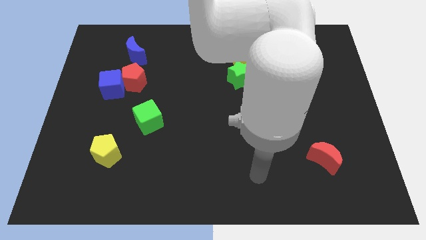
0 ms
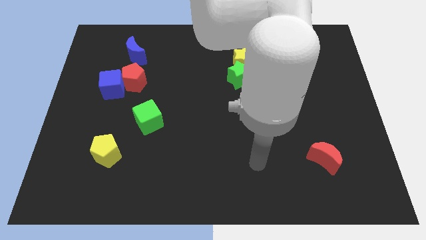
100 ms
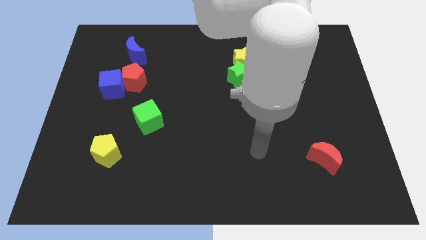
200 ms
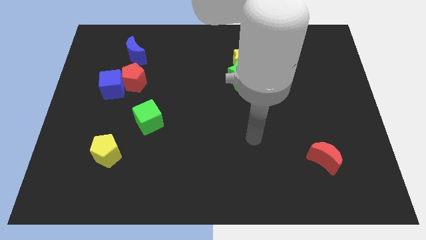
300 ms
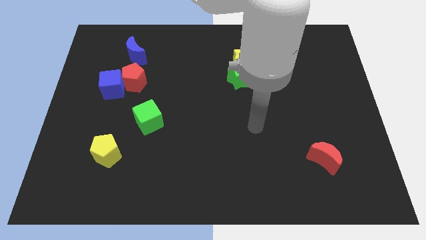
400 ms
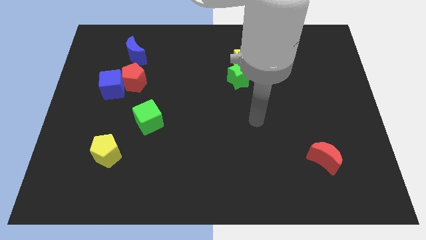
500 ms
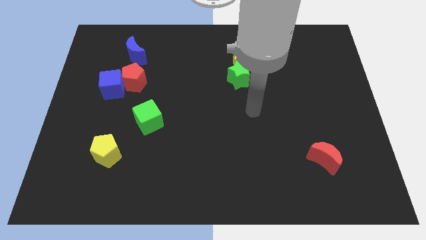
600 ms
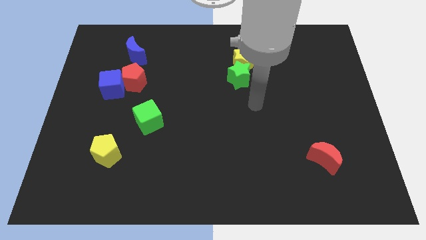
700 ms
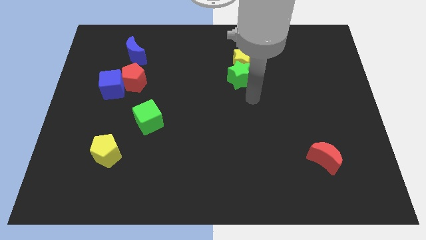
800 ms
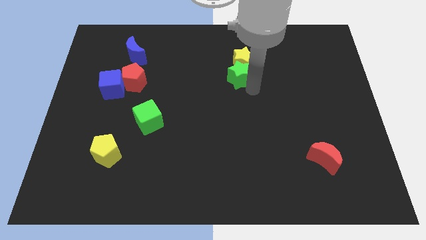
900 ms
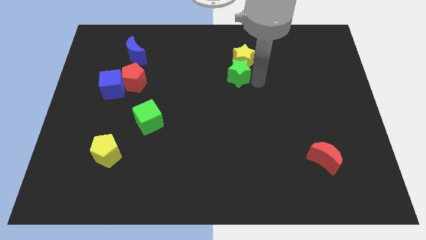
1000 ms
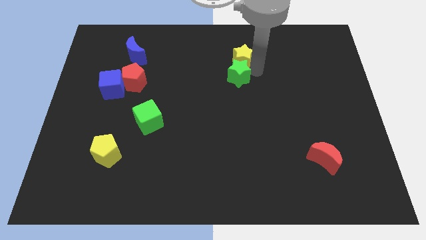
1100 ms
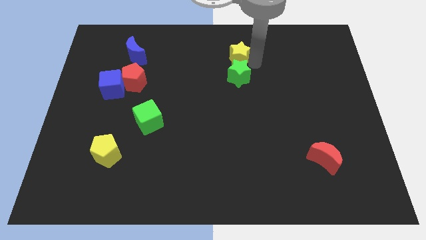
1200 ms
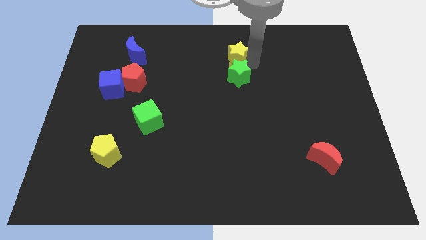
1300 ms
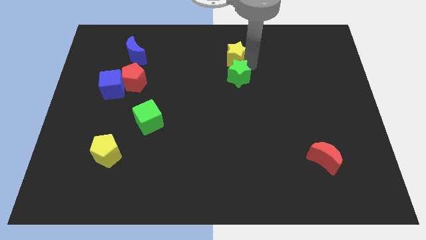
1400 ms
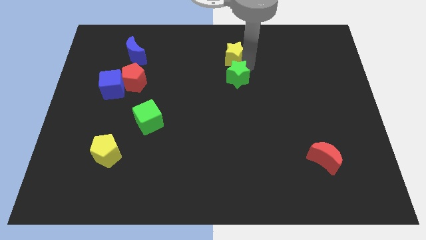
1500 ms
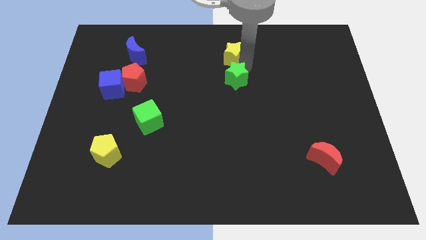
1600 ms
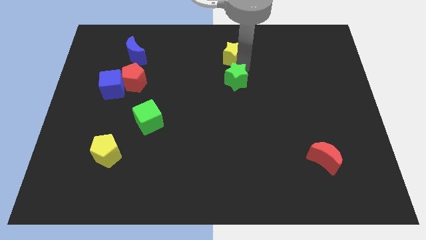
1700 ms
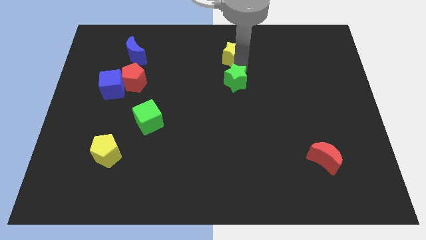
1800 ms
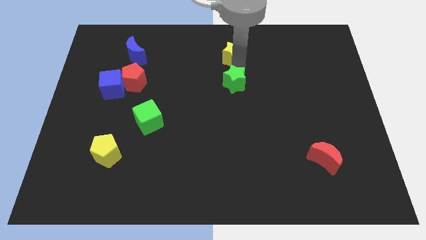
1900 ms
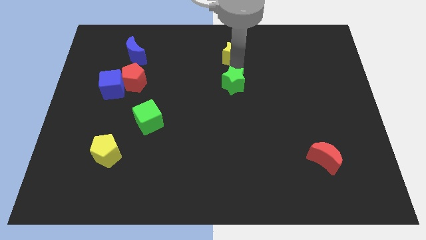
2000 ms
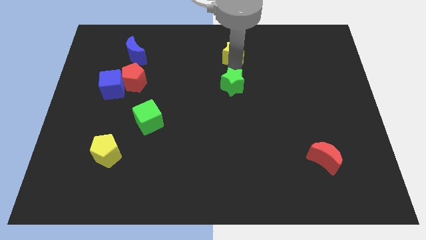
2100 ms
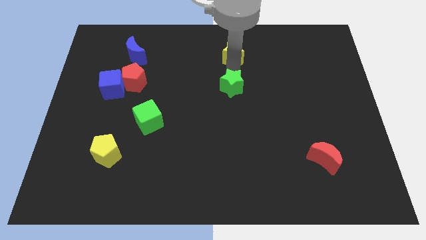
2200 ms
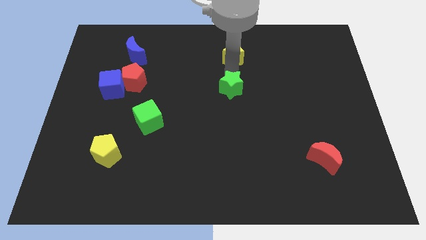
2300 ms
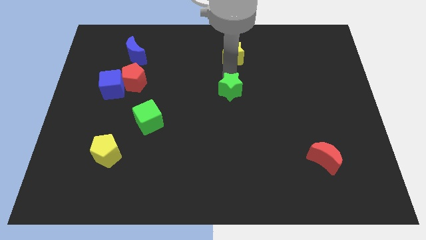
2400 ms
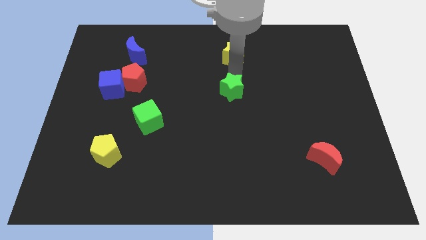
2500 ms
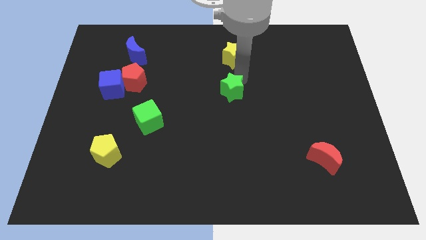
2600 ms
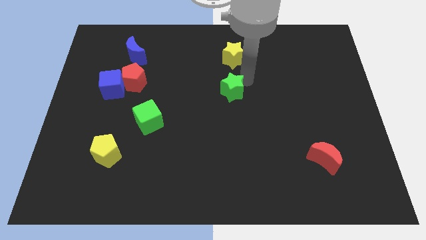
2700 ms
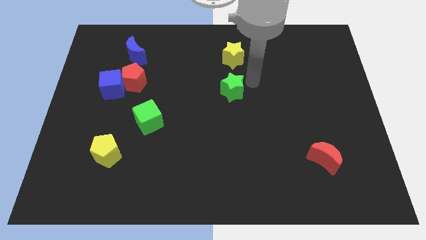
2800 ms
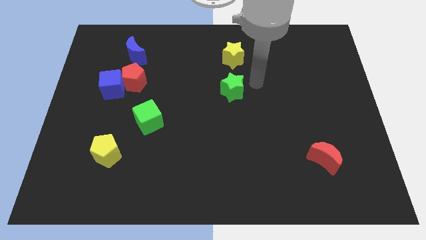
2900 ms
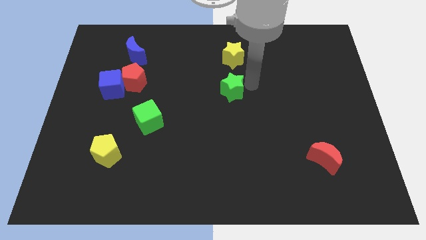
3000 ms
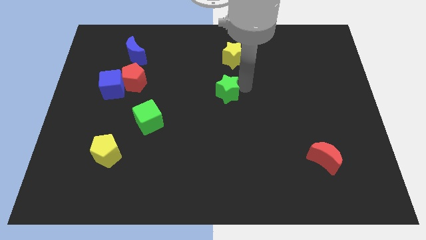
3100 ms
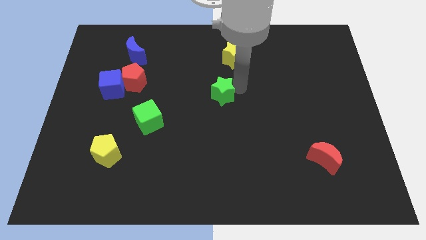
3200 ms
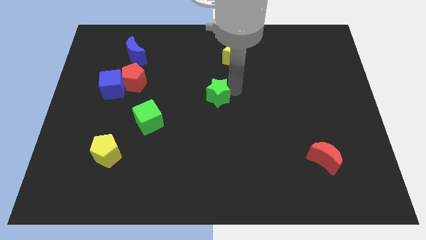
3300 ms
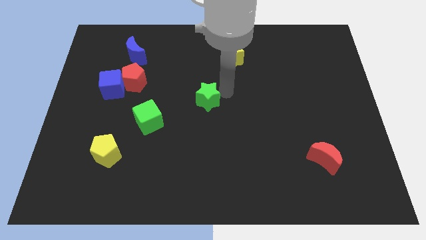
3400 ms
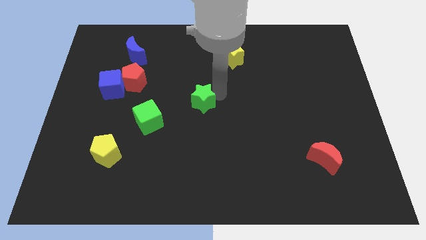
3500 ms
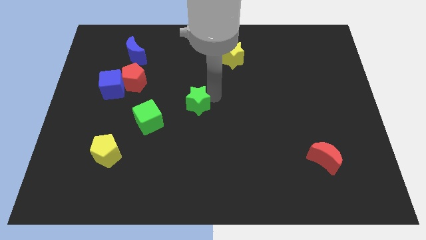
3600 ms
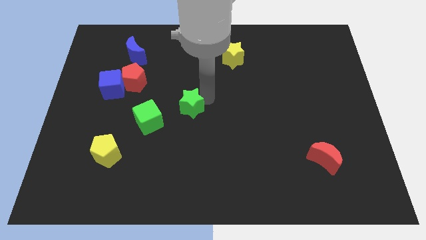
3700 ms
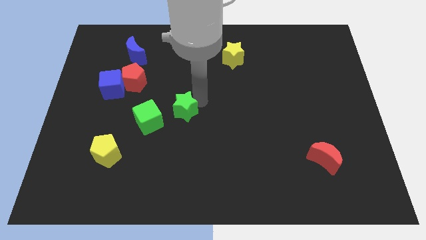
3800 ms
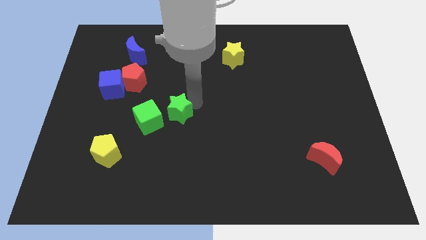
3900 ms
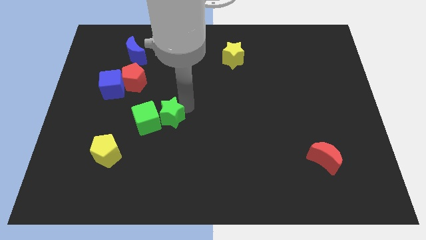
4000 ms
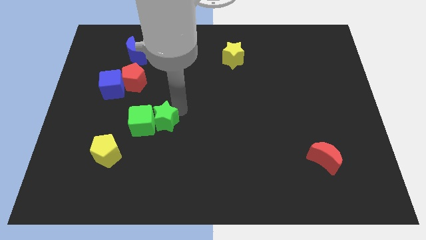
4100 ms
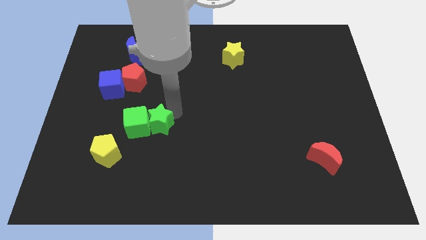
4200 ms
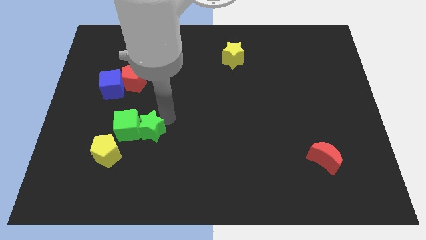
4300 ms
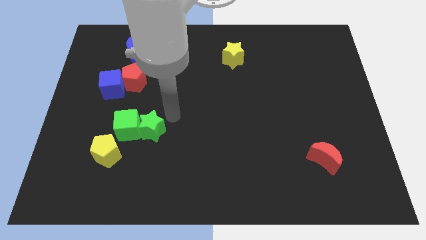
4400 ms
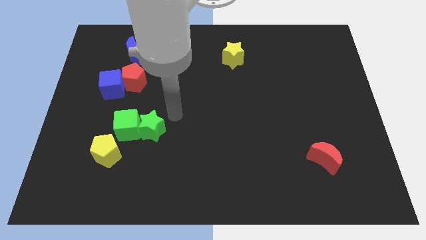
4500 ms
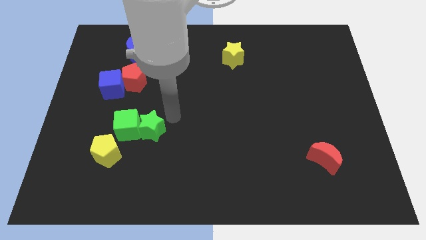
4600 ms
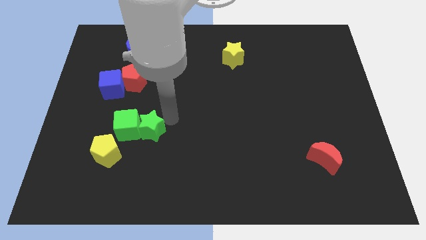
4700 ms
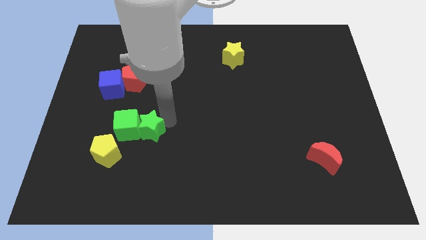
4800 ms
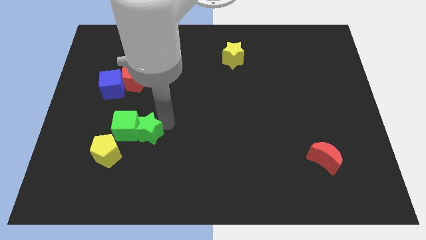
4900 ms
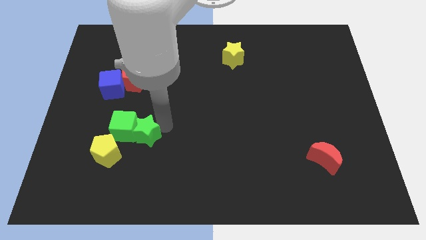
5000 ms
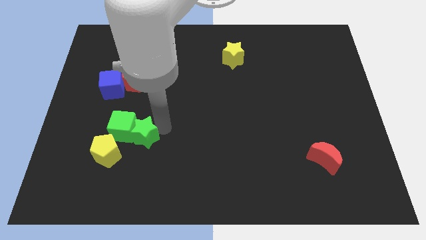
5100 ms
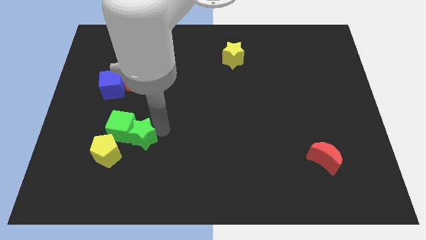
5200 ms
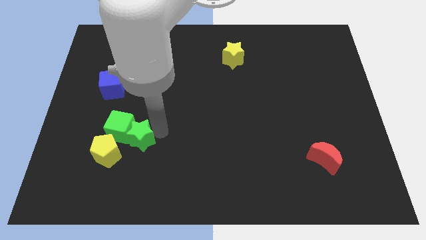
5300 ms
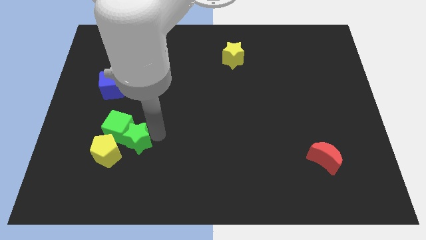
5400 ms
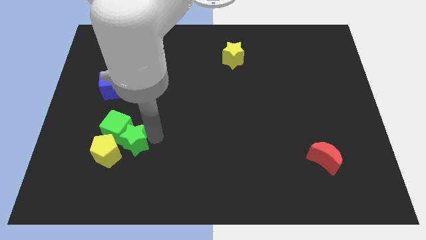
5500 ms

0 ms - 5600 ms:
push the green star towards the yellow pentagon

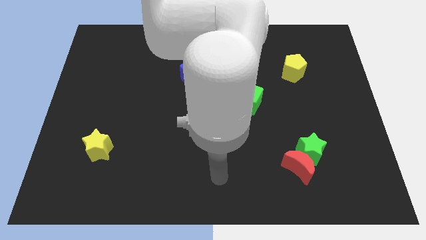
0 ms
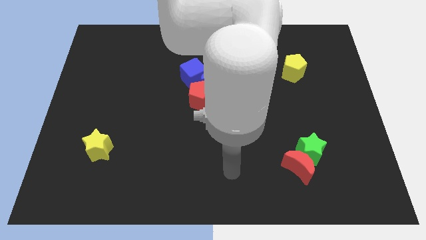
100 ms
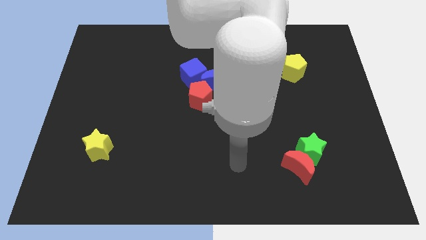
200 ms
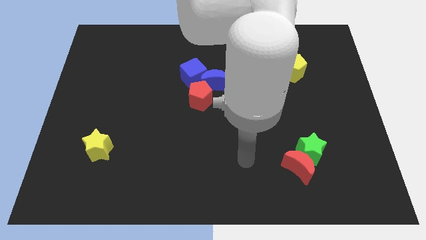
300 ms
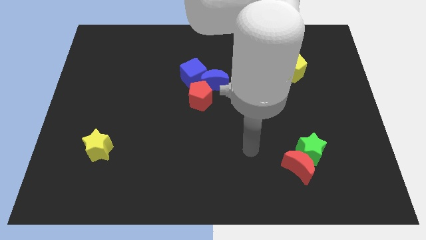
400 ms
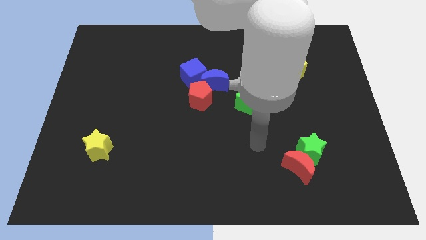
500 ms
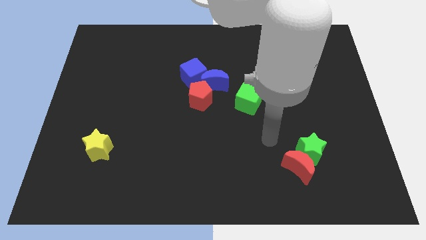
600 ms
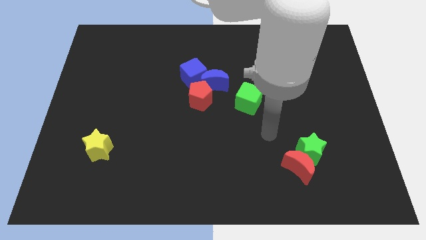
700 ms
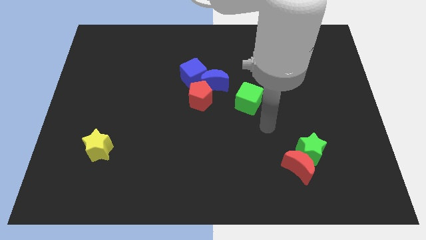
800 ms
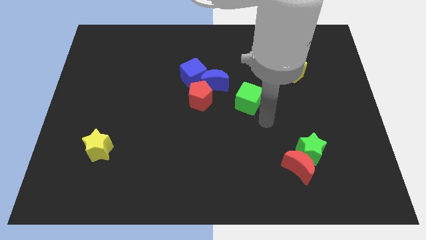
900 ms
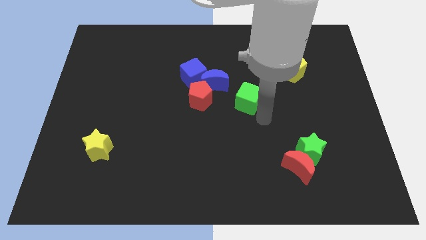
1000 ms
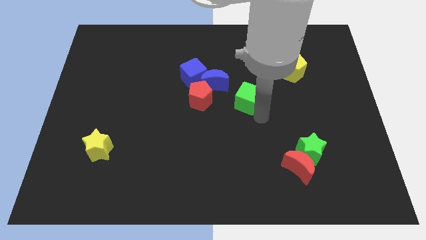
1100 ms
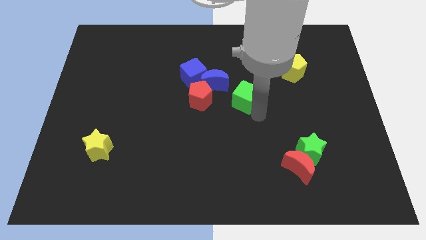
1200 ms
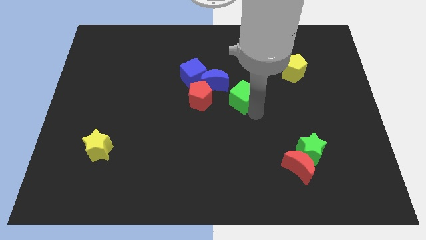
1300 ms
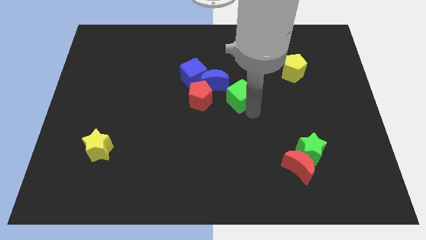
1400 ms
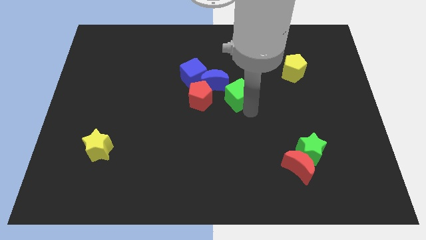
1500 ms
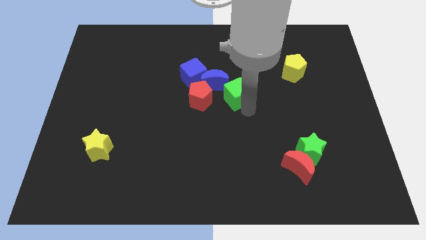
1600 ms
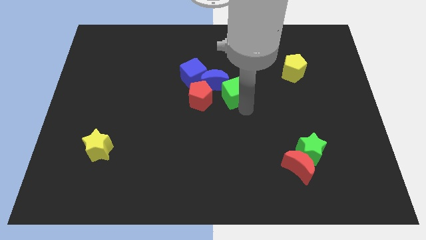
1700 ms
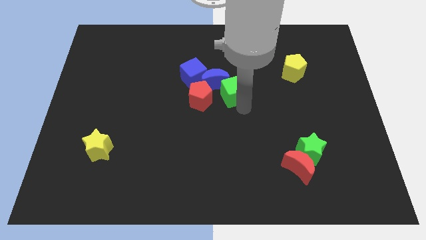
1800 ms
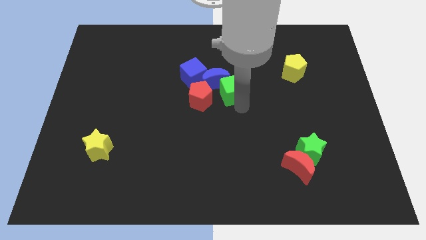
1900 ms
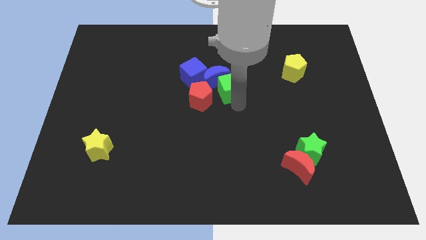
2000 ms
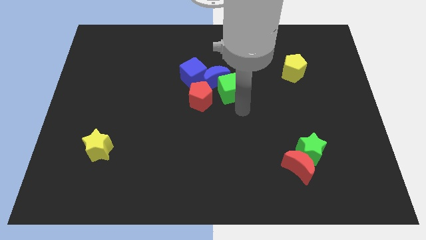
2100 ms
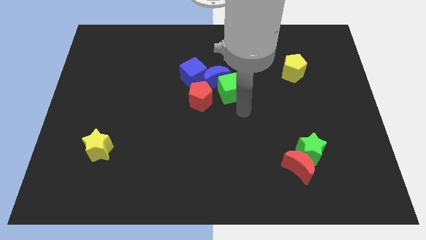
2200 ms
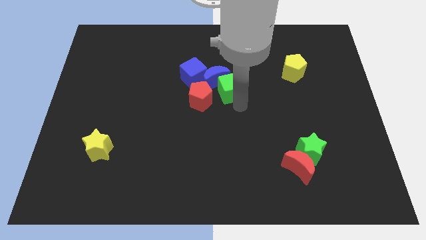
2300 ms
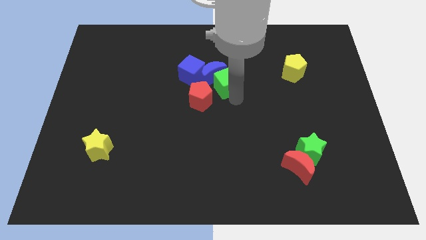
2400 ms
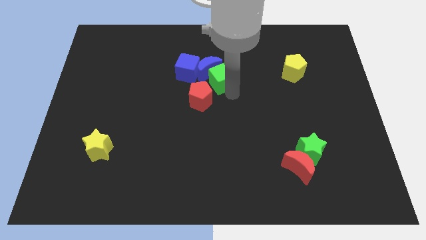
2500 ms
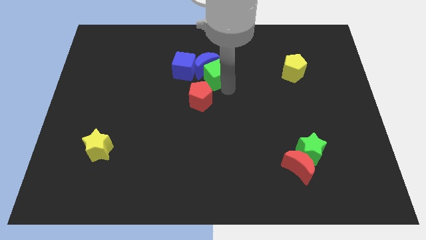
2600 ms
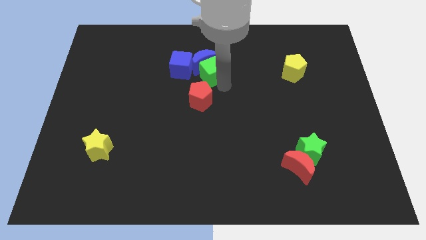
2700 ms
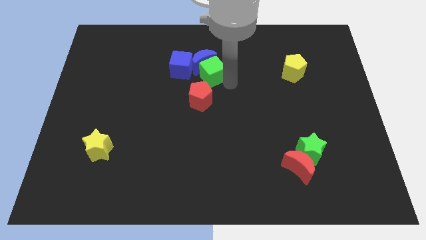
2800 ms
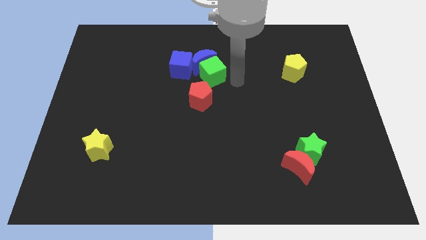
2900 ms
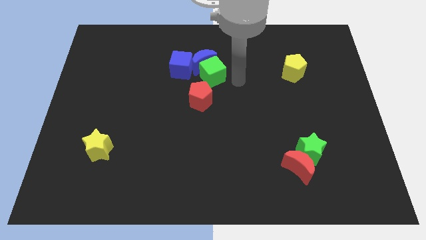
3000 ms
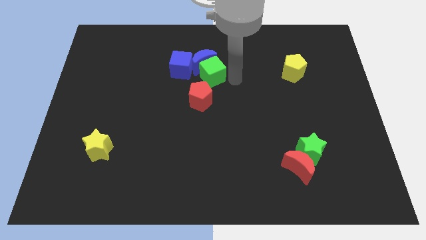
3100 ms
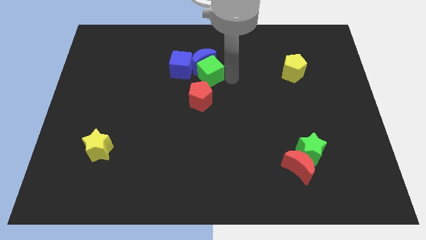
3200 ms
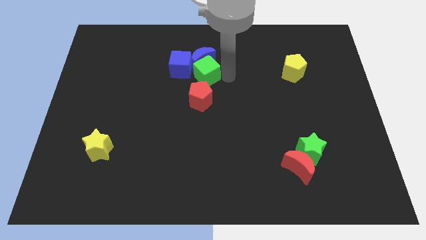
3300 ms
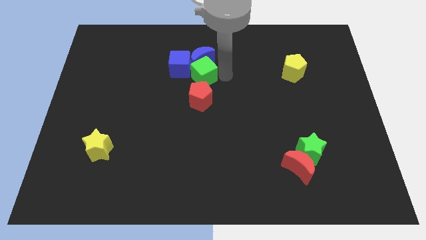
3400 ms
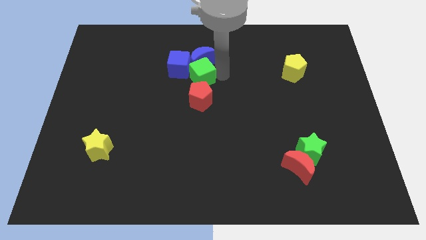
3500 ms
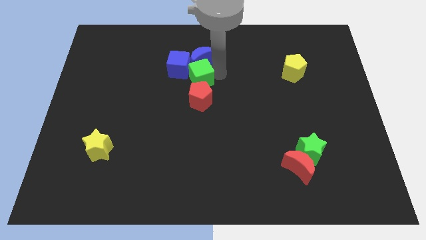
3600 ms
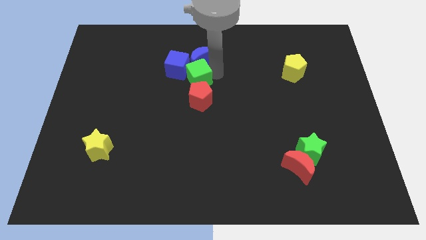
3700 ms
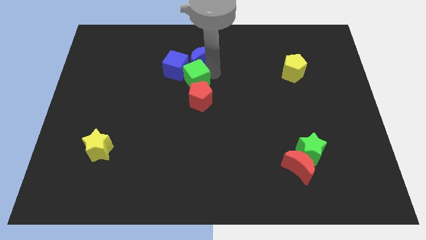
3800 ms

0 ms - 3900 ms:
push the green cube next to the blue cube
